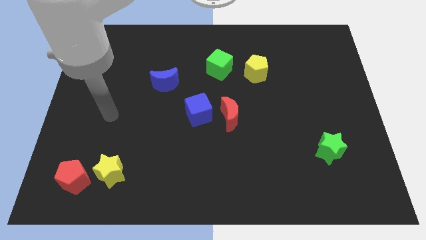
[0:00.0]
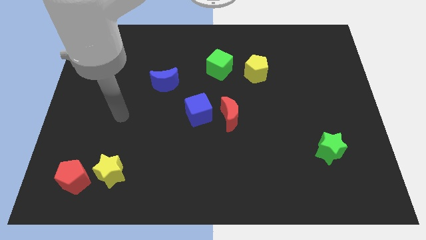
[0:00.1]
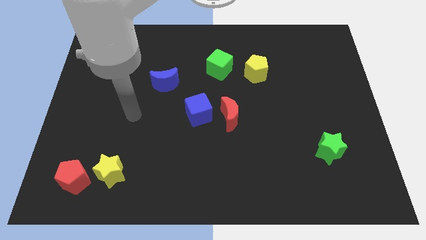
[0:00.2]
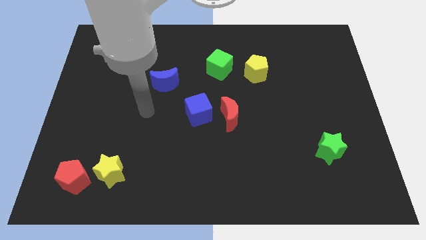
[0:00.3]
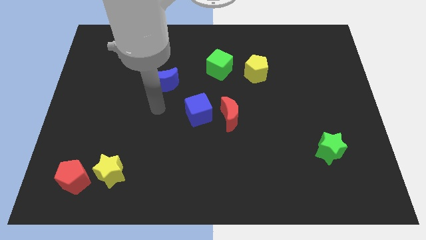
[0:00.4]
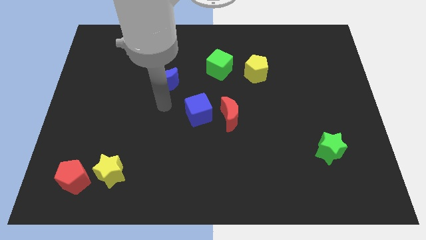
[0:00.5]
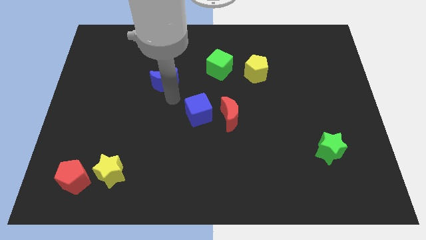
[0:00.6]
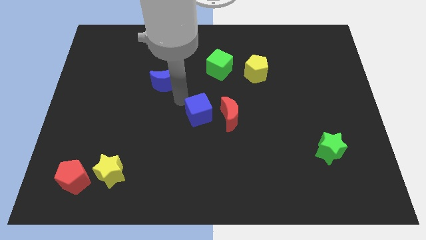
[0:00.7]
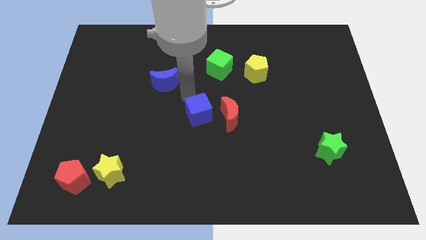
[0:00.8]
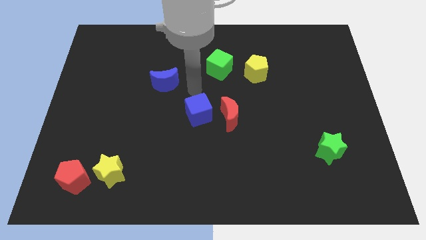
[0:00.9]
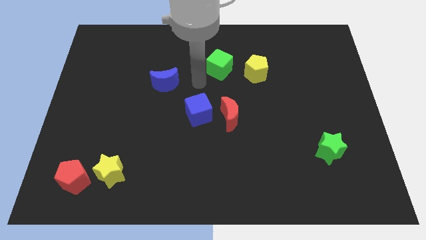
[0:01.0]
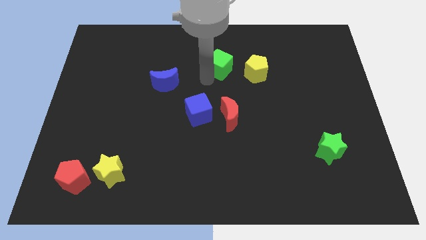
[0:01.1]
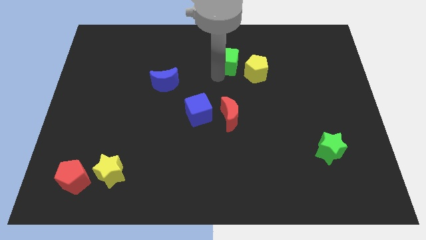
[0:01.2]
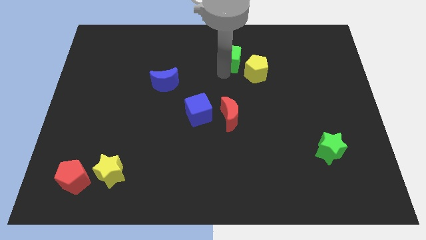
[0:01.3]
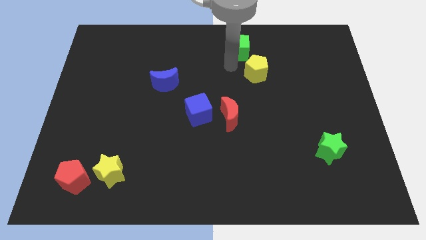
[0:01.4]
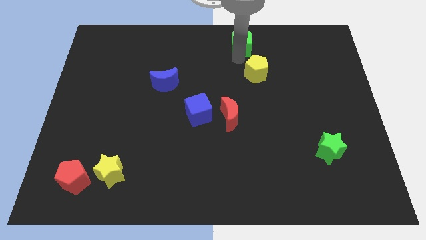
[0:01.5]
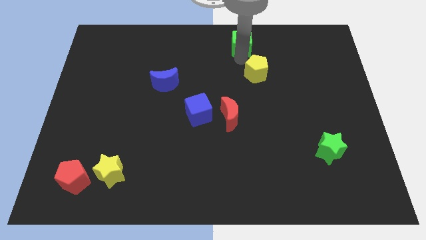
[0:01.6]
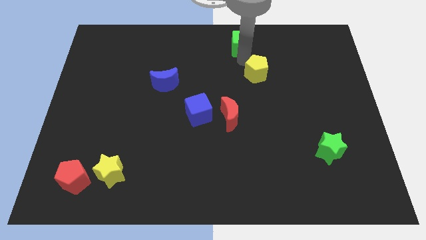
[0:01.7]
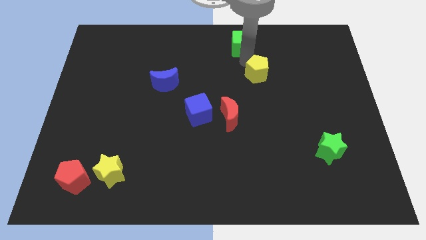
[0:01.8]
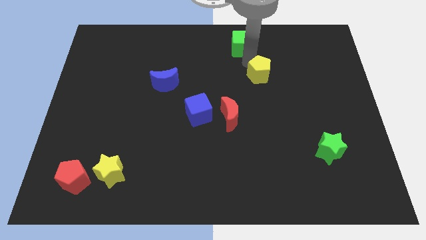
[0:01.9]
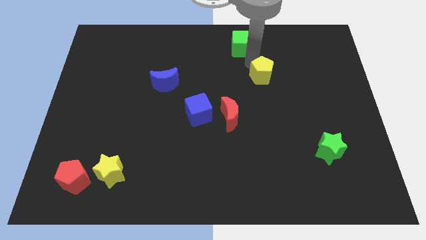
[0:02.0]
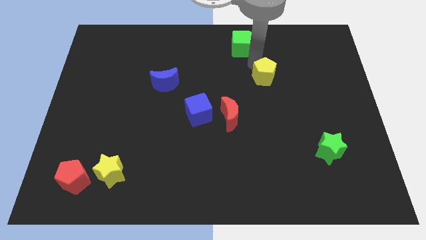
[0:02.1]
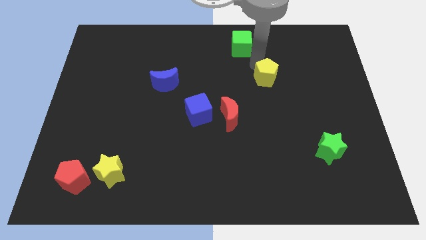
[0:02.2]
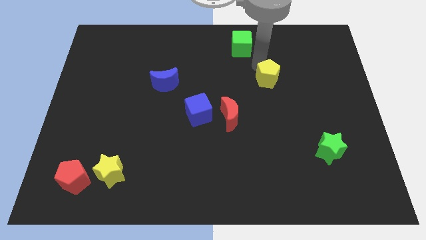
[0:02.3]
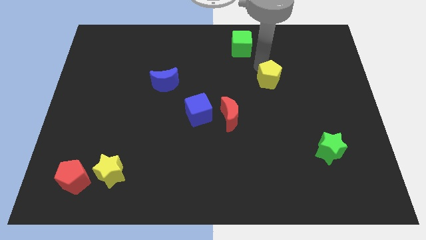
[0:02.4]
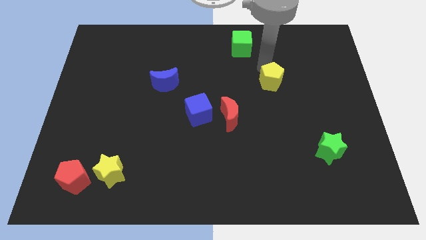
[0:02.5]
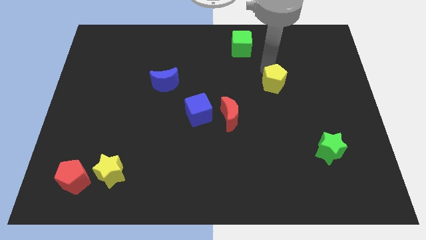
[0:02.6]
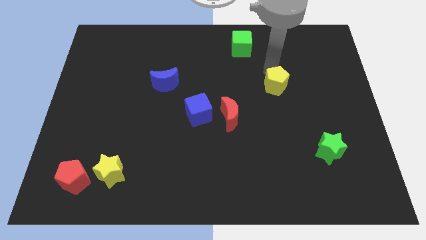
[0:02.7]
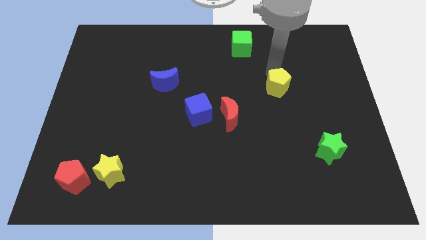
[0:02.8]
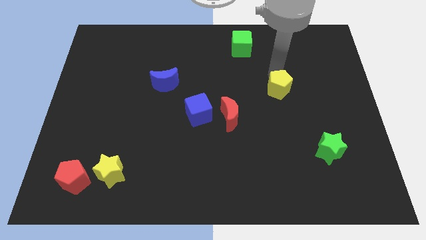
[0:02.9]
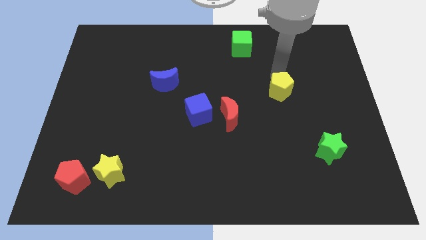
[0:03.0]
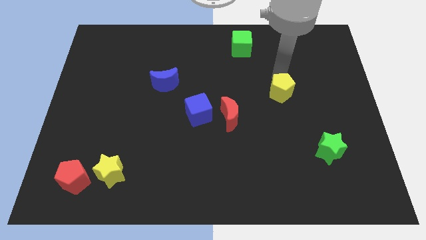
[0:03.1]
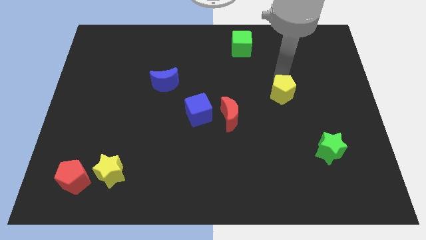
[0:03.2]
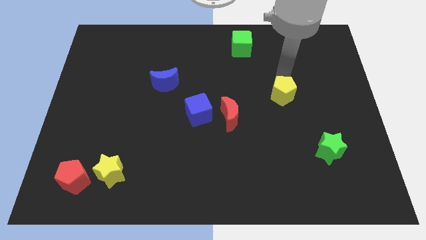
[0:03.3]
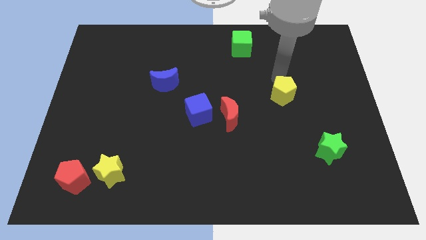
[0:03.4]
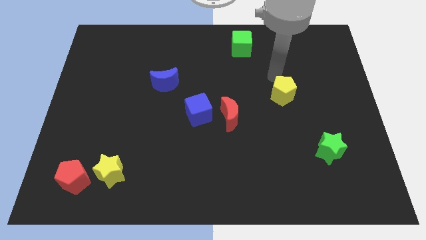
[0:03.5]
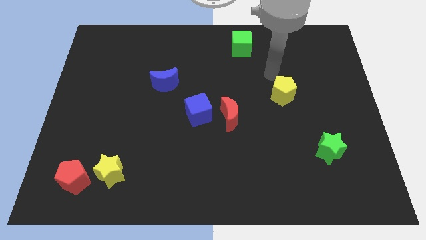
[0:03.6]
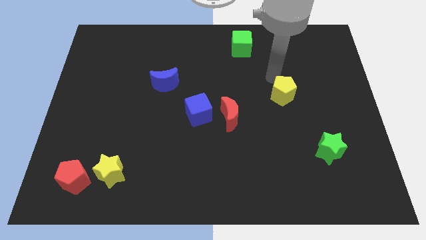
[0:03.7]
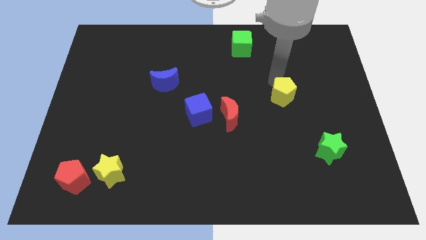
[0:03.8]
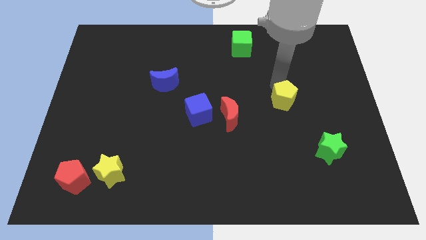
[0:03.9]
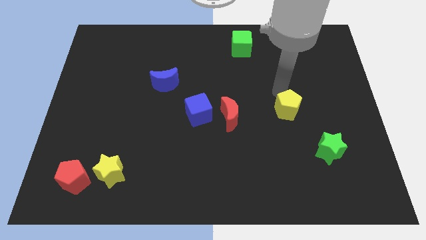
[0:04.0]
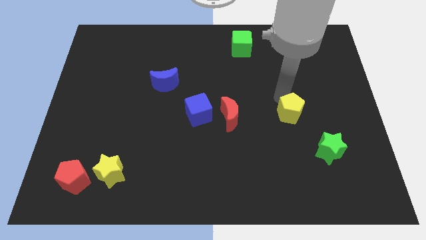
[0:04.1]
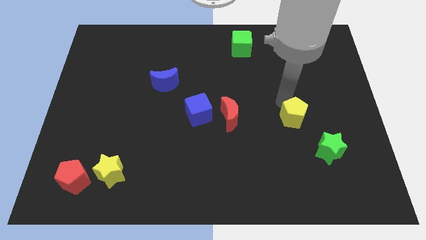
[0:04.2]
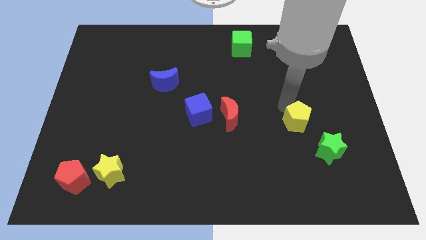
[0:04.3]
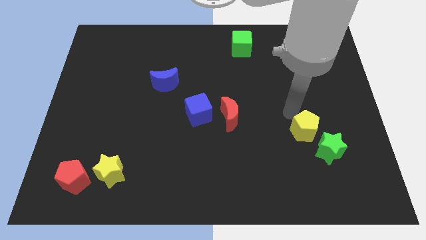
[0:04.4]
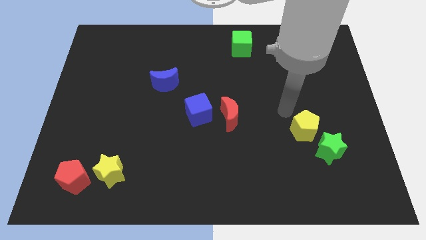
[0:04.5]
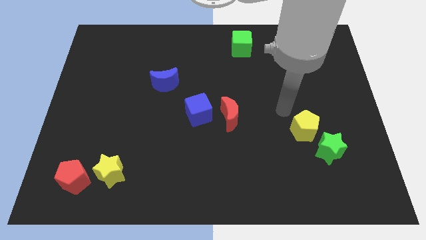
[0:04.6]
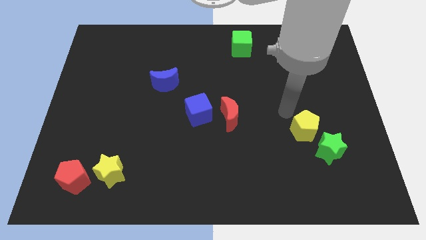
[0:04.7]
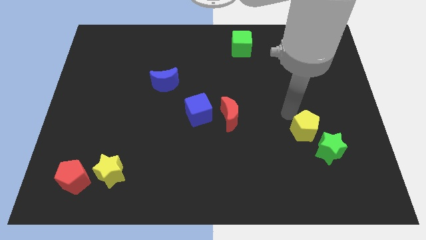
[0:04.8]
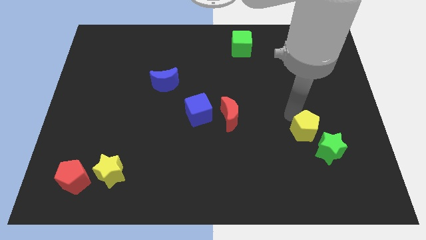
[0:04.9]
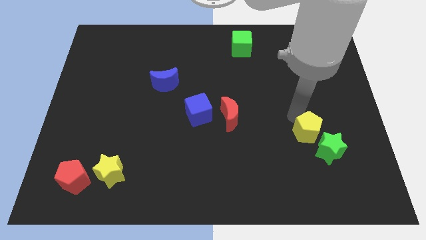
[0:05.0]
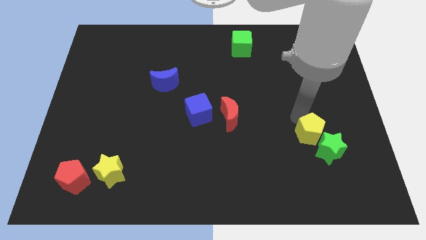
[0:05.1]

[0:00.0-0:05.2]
slide the yellow pentagon to the green star

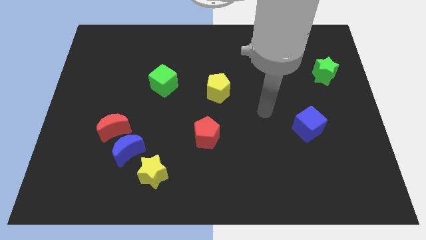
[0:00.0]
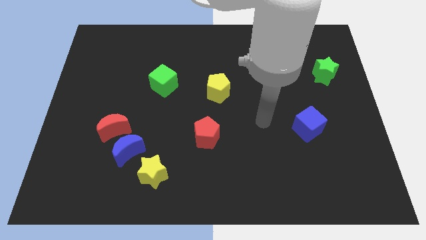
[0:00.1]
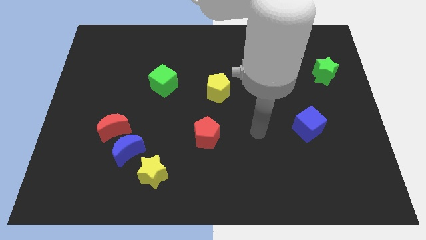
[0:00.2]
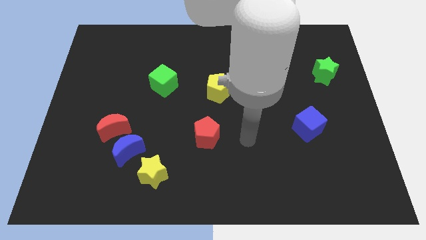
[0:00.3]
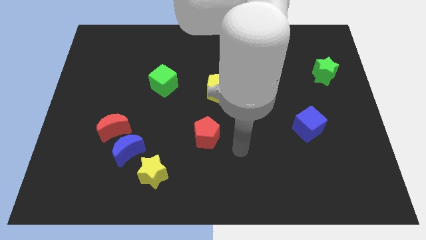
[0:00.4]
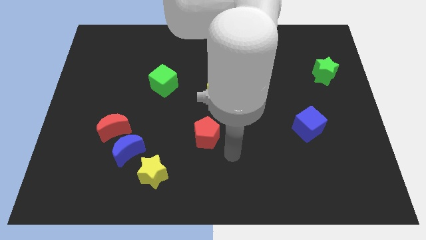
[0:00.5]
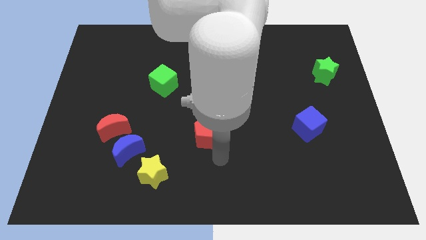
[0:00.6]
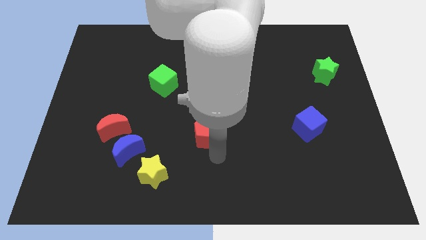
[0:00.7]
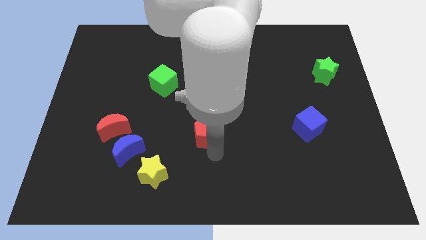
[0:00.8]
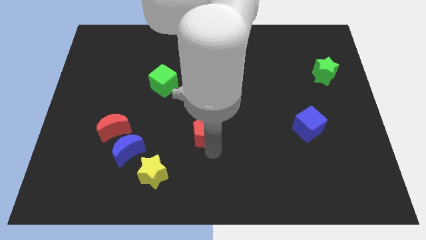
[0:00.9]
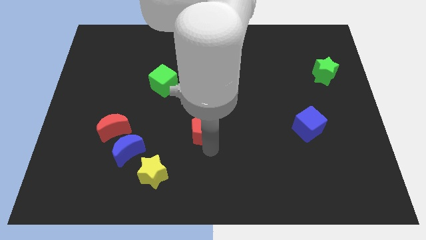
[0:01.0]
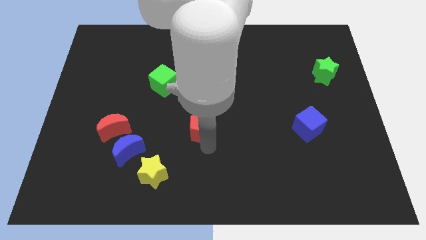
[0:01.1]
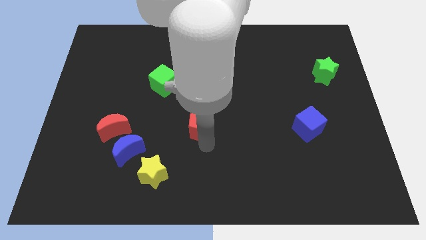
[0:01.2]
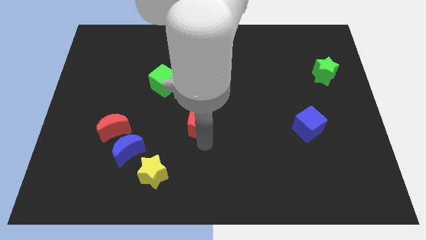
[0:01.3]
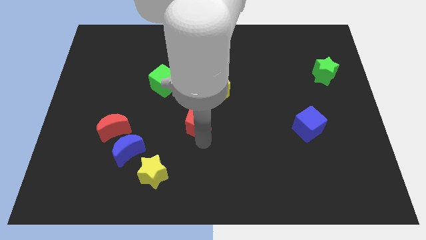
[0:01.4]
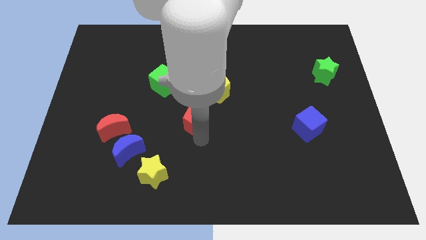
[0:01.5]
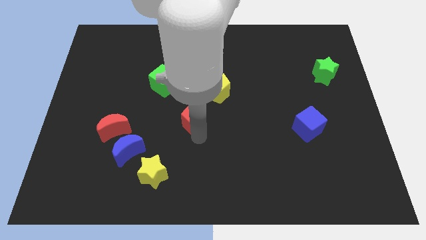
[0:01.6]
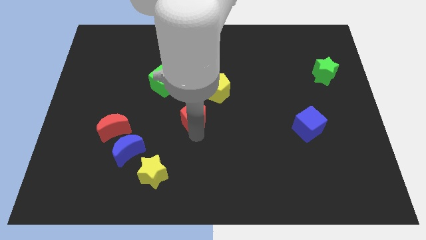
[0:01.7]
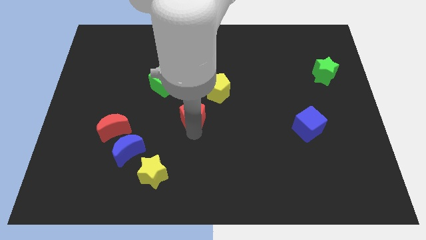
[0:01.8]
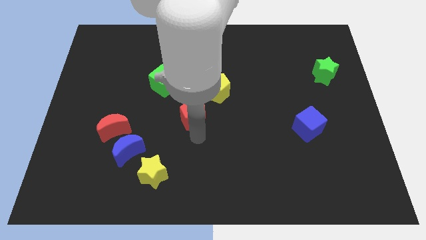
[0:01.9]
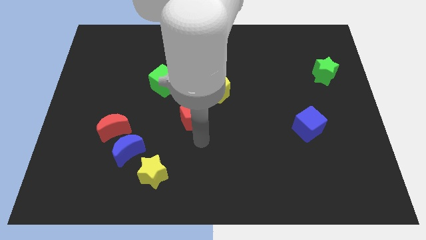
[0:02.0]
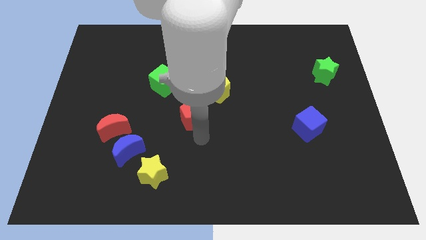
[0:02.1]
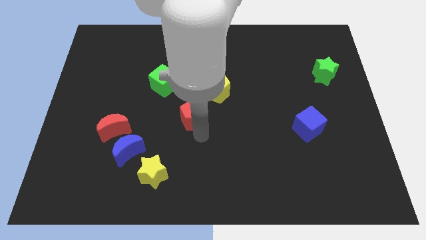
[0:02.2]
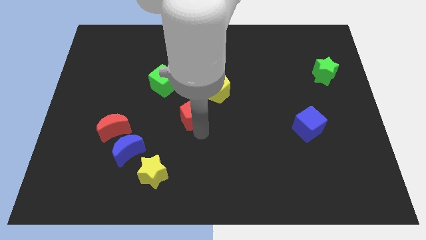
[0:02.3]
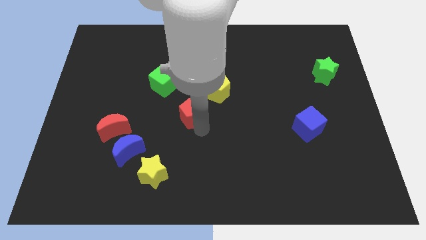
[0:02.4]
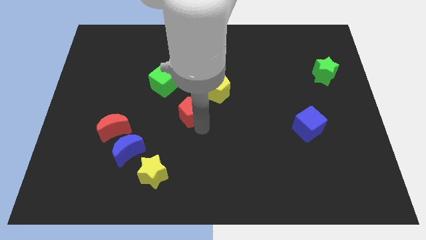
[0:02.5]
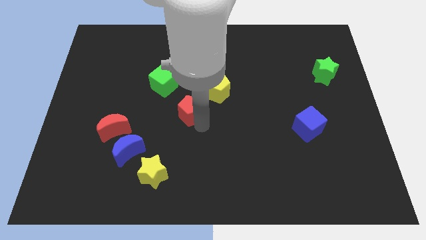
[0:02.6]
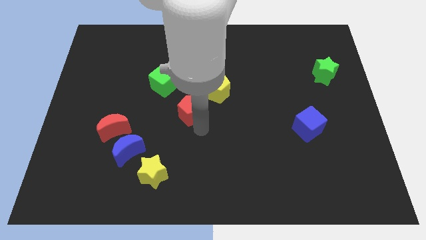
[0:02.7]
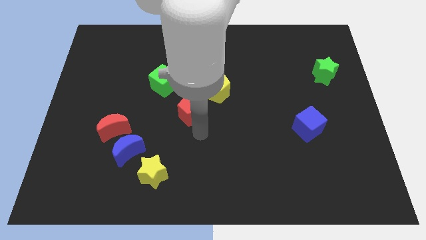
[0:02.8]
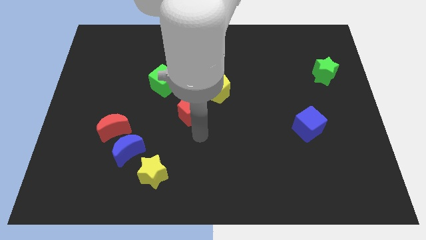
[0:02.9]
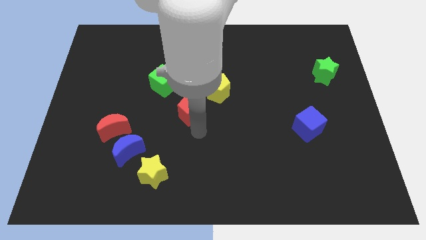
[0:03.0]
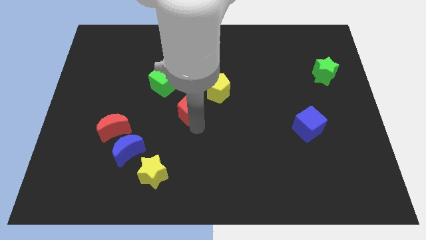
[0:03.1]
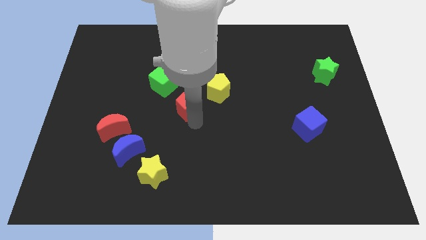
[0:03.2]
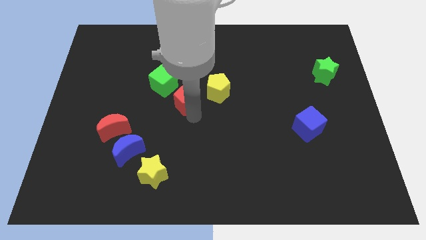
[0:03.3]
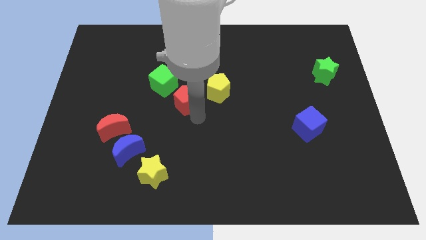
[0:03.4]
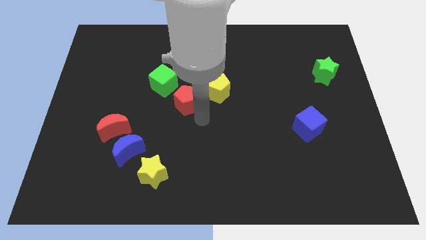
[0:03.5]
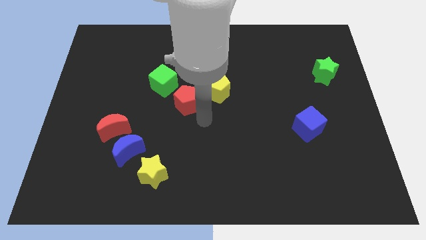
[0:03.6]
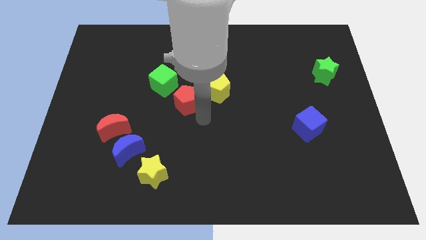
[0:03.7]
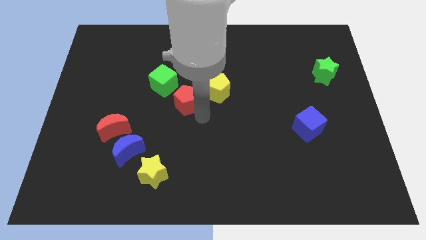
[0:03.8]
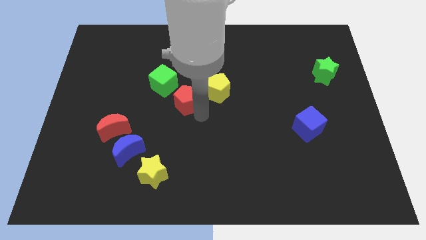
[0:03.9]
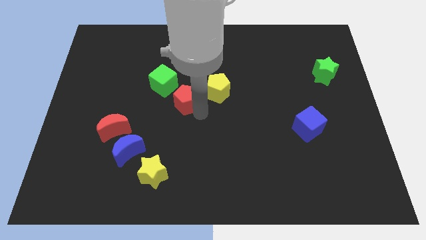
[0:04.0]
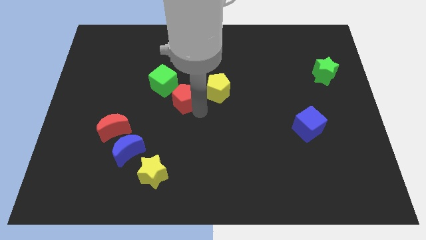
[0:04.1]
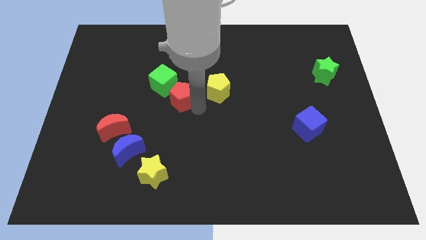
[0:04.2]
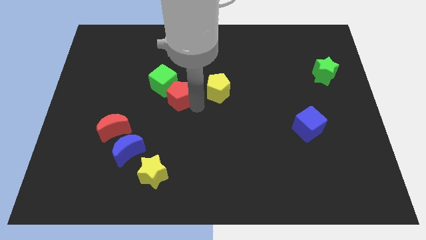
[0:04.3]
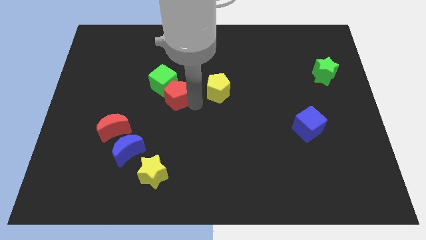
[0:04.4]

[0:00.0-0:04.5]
move the red pentagon next to the green cube
